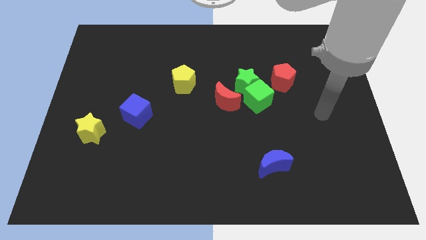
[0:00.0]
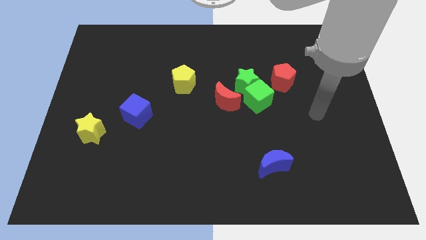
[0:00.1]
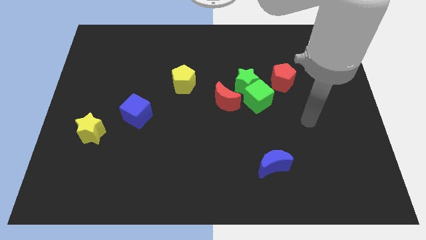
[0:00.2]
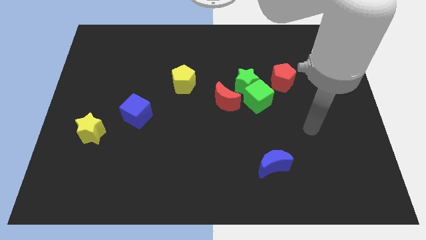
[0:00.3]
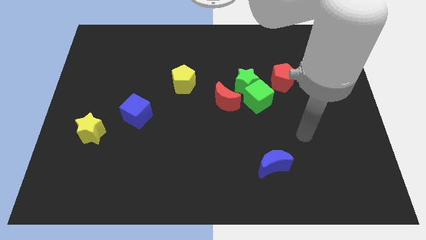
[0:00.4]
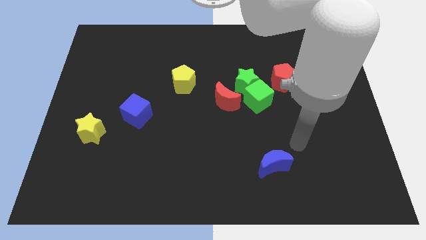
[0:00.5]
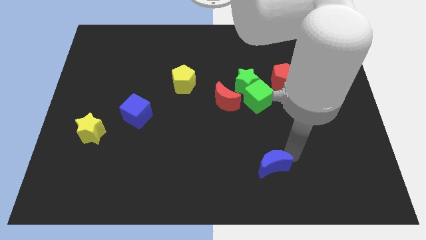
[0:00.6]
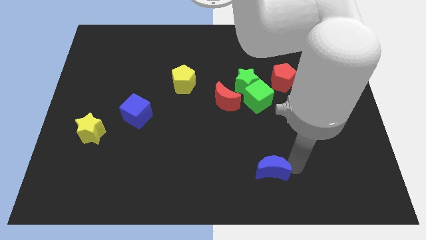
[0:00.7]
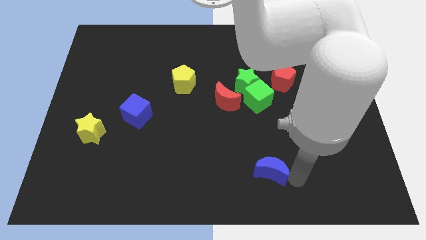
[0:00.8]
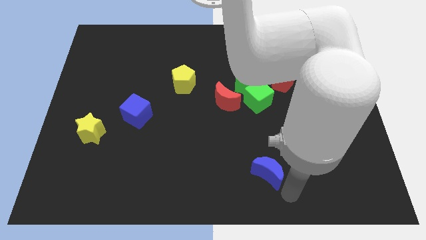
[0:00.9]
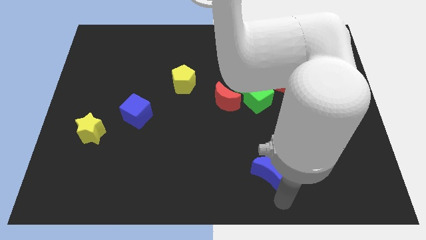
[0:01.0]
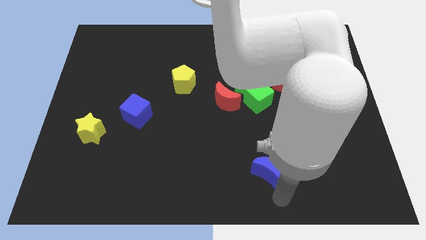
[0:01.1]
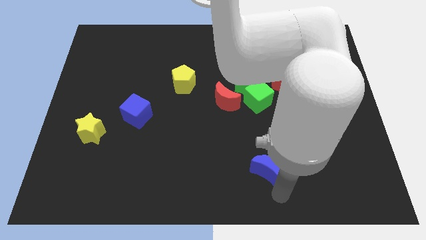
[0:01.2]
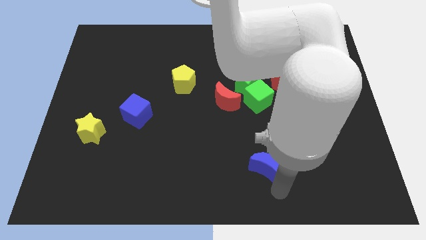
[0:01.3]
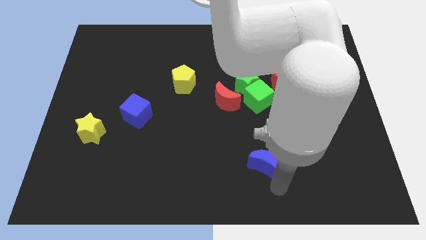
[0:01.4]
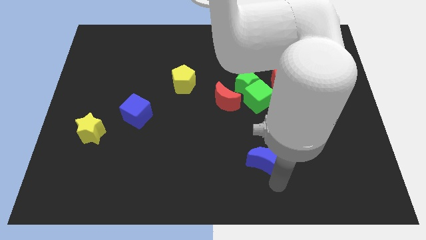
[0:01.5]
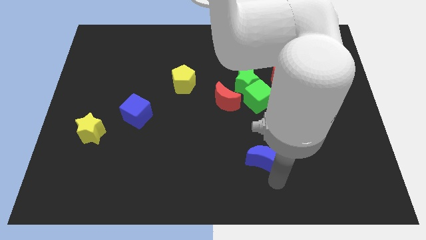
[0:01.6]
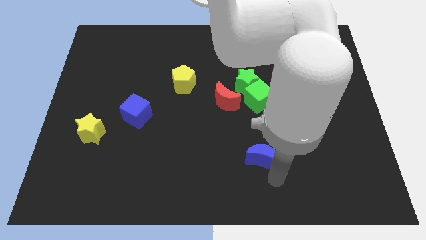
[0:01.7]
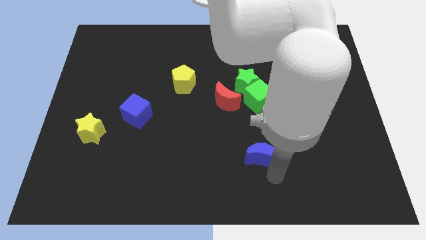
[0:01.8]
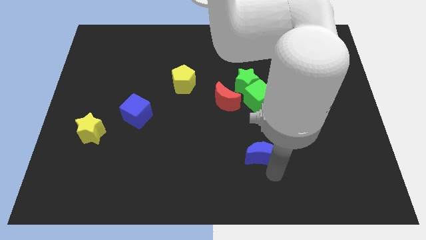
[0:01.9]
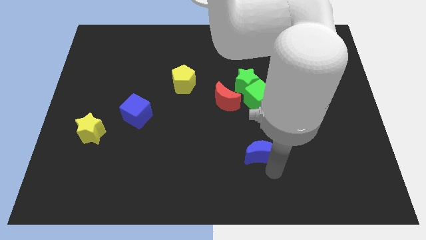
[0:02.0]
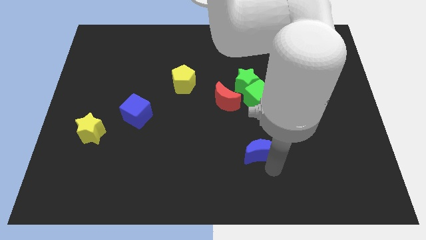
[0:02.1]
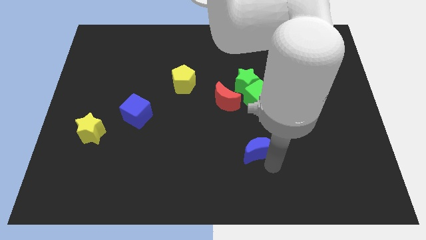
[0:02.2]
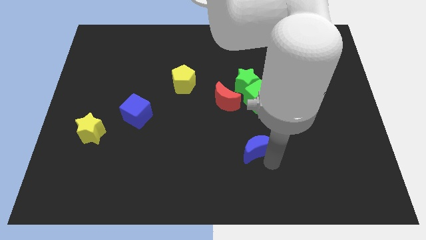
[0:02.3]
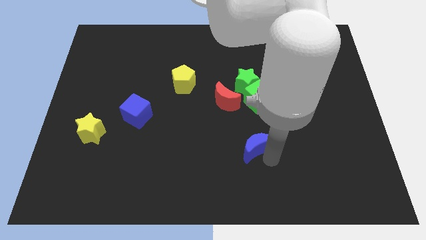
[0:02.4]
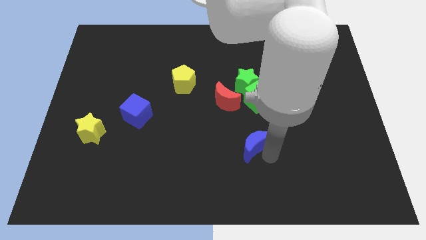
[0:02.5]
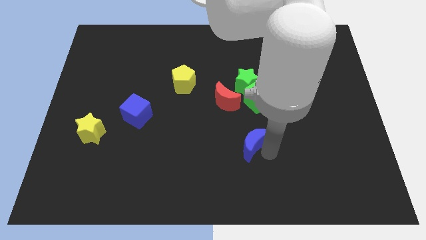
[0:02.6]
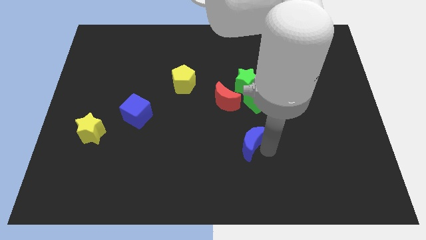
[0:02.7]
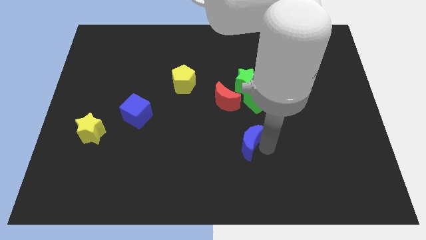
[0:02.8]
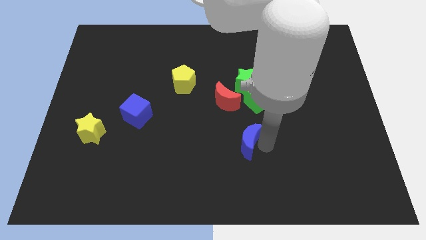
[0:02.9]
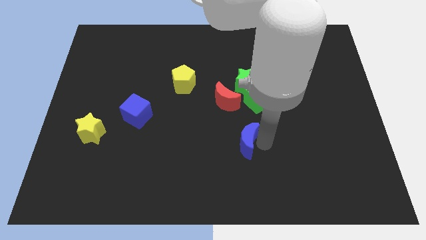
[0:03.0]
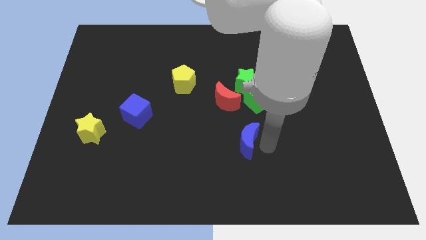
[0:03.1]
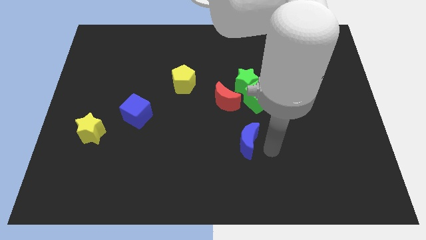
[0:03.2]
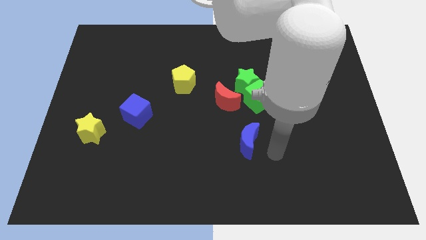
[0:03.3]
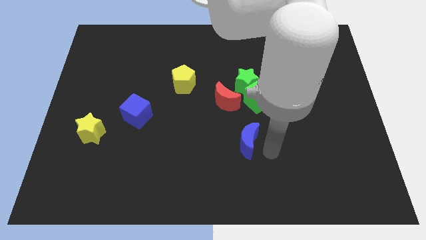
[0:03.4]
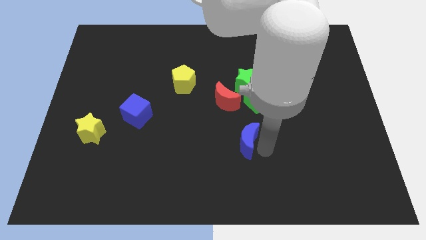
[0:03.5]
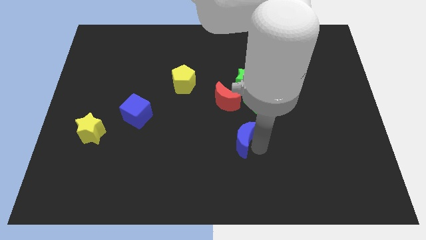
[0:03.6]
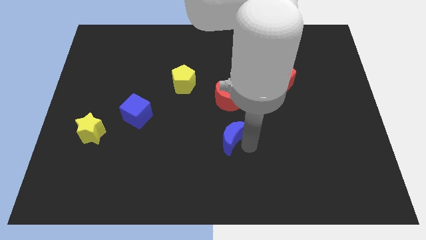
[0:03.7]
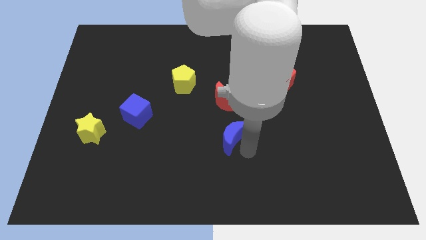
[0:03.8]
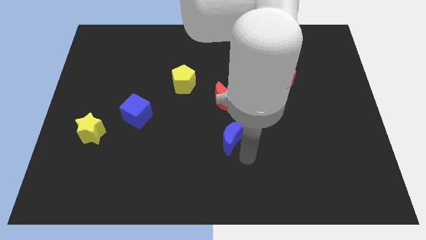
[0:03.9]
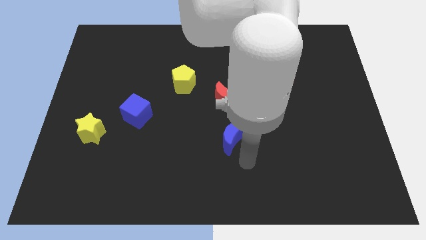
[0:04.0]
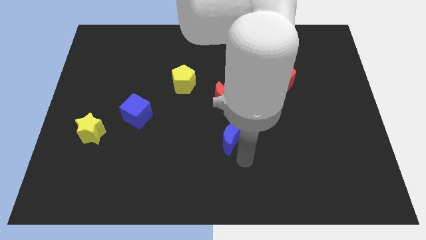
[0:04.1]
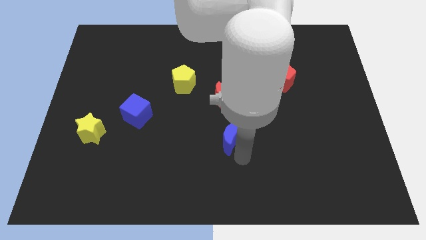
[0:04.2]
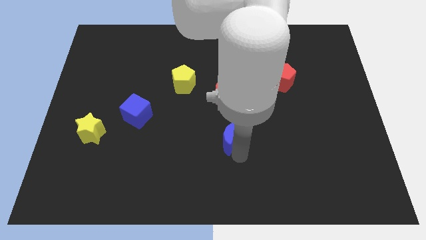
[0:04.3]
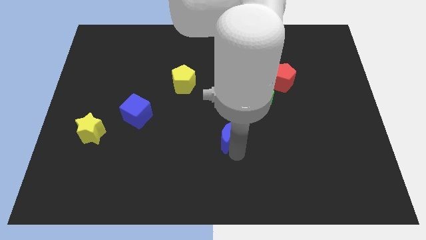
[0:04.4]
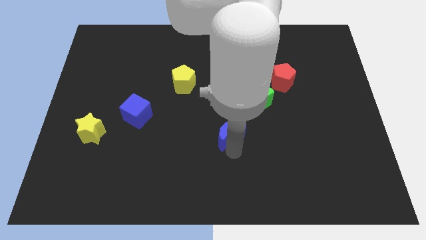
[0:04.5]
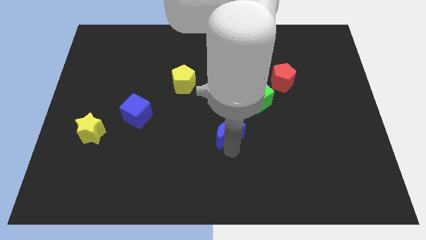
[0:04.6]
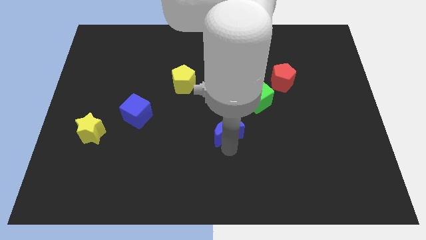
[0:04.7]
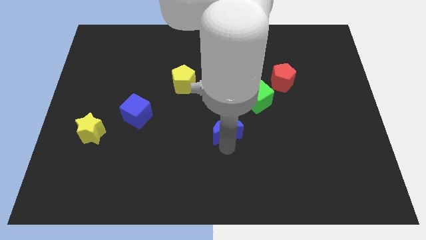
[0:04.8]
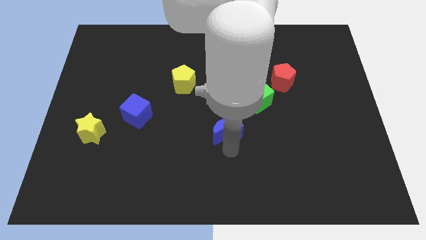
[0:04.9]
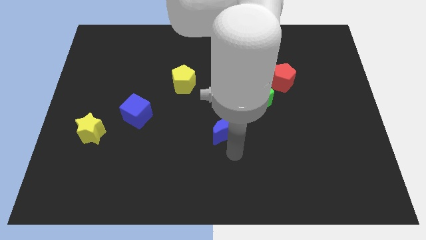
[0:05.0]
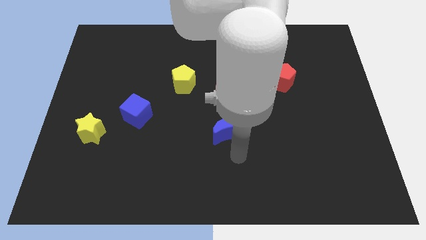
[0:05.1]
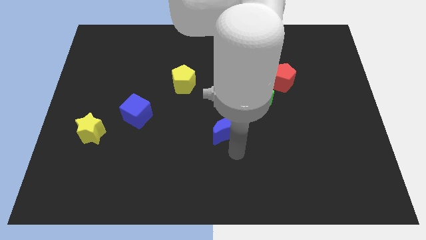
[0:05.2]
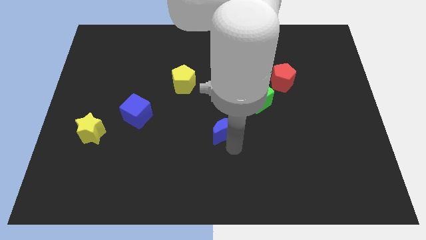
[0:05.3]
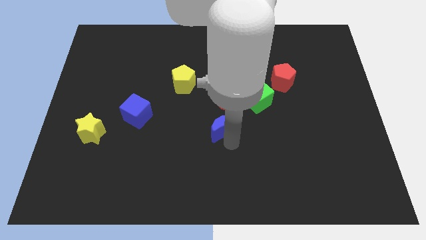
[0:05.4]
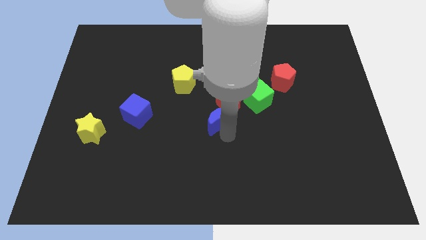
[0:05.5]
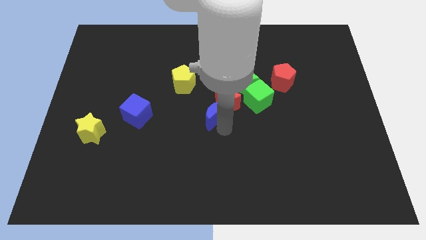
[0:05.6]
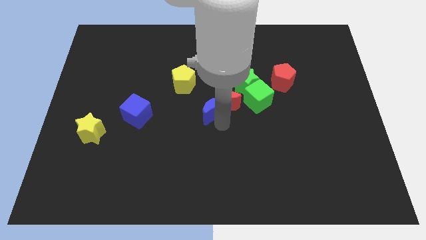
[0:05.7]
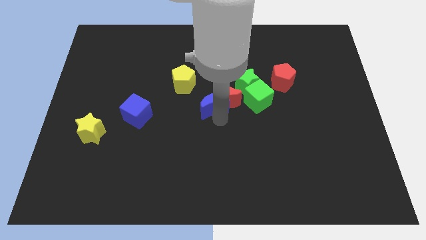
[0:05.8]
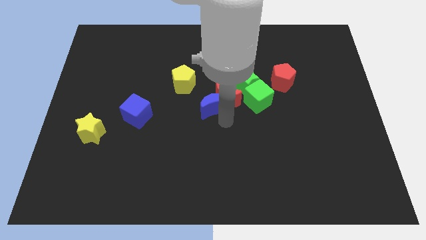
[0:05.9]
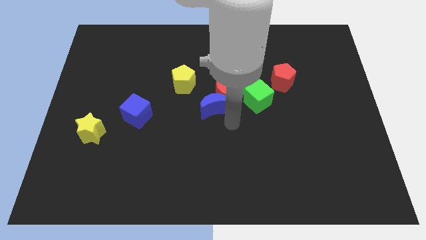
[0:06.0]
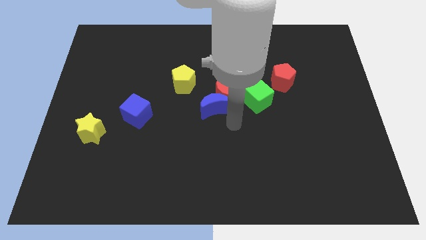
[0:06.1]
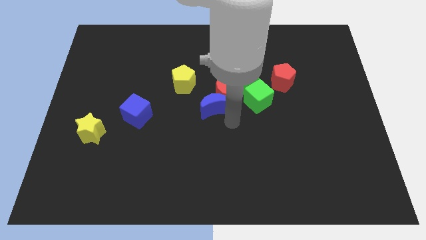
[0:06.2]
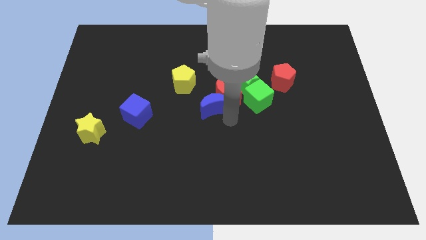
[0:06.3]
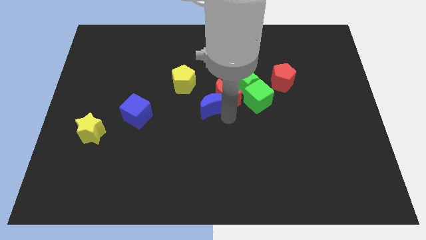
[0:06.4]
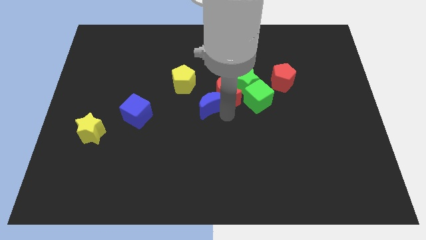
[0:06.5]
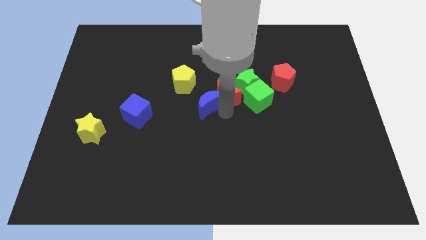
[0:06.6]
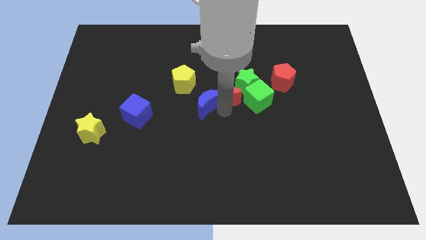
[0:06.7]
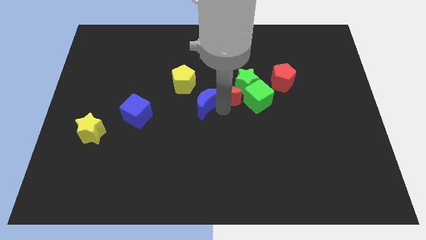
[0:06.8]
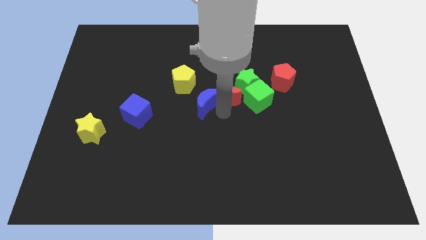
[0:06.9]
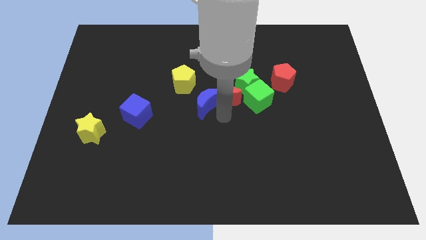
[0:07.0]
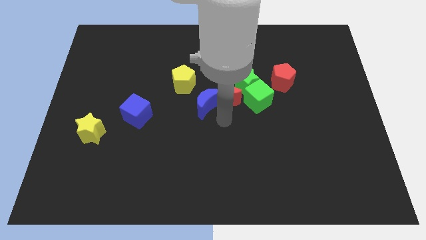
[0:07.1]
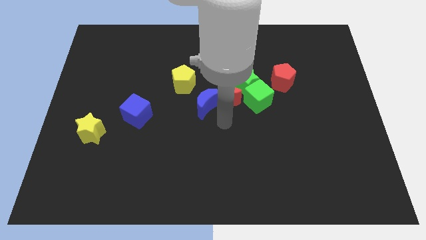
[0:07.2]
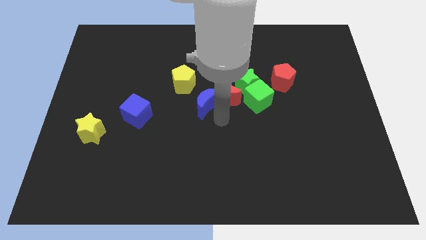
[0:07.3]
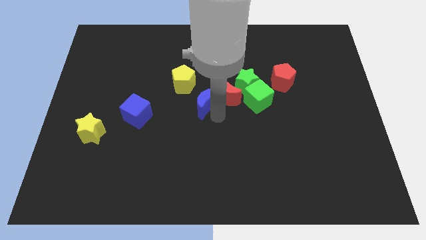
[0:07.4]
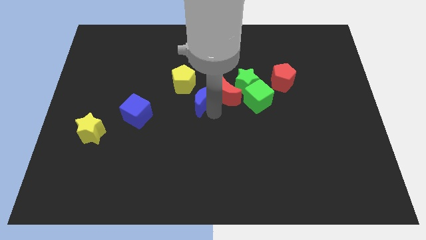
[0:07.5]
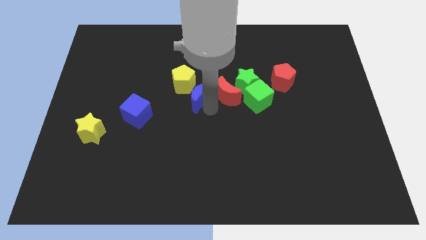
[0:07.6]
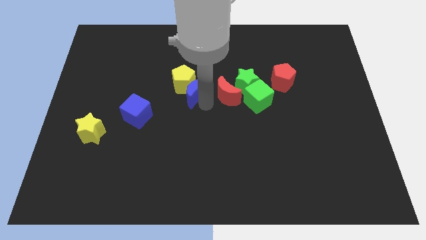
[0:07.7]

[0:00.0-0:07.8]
slide the blue moon next to the yellow pentagon
